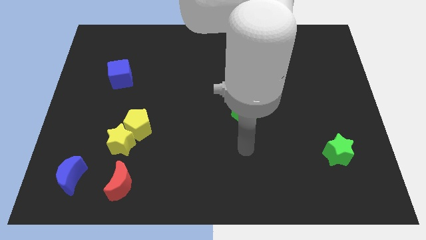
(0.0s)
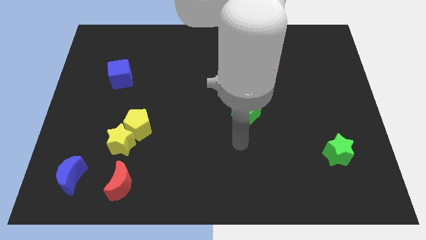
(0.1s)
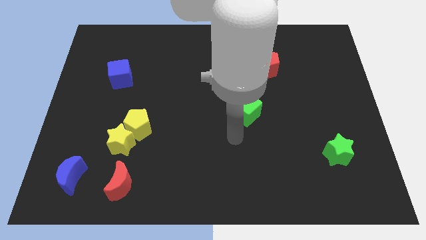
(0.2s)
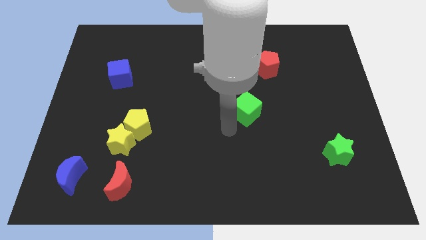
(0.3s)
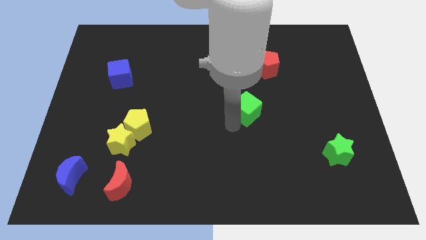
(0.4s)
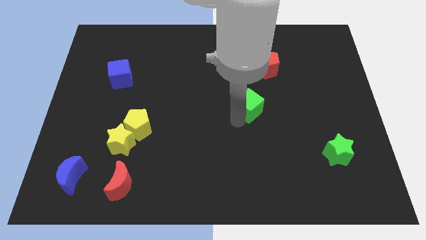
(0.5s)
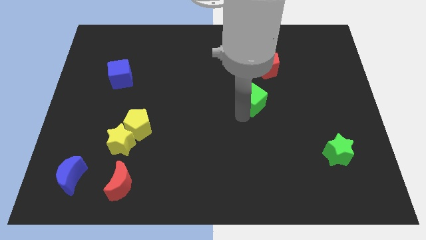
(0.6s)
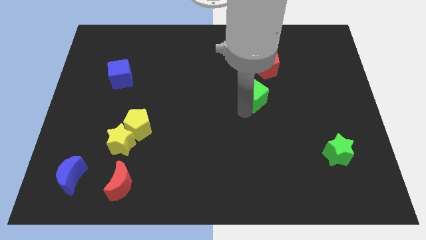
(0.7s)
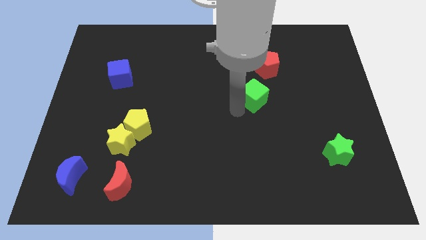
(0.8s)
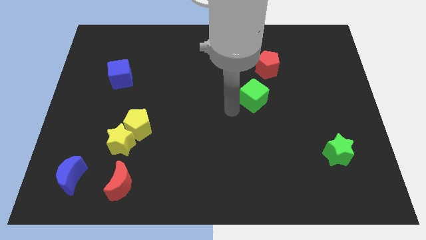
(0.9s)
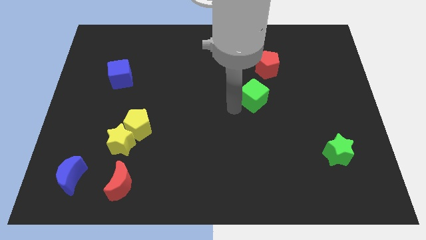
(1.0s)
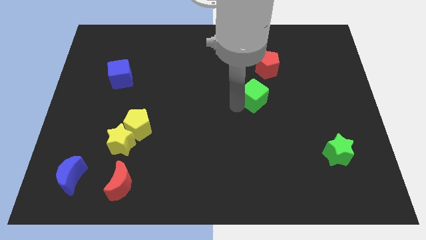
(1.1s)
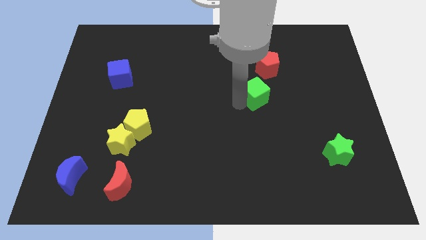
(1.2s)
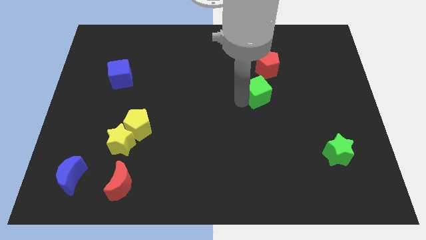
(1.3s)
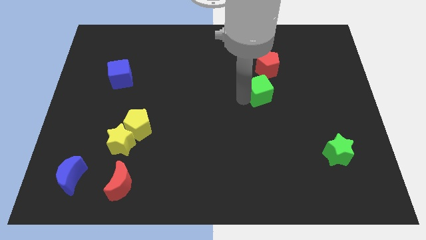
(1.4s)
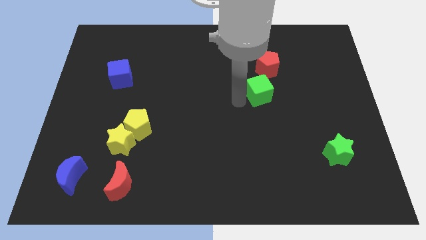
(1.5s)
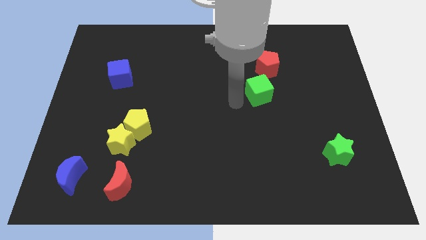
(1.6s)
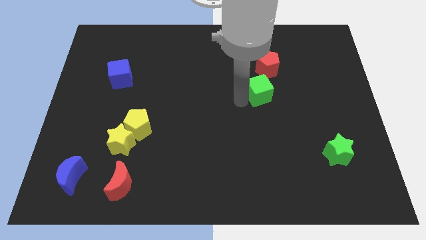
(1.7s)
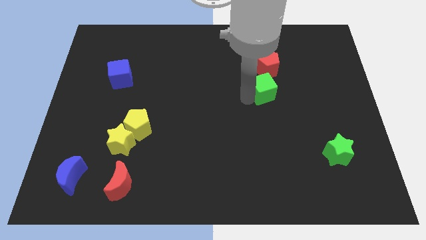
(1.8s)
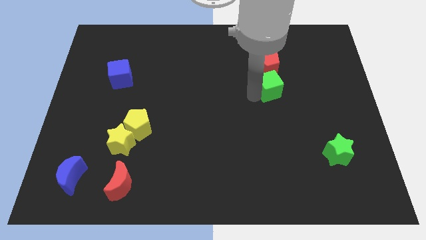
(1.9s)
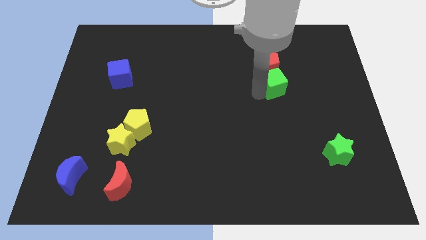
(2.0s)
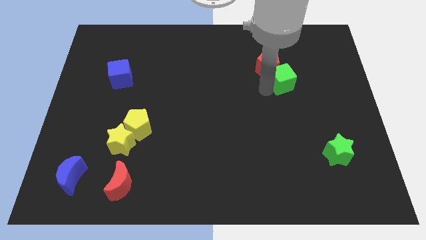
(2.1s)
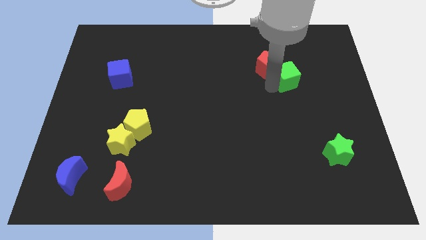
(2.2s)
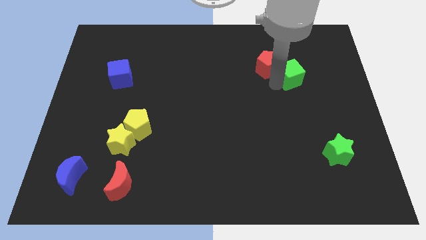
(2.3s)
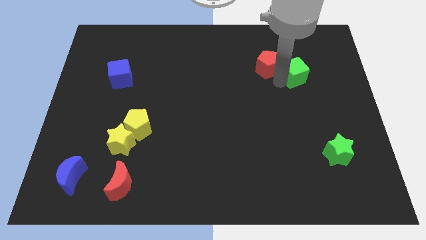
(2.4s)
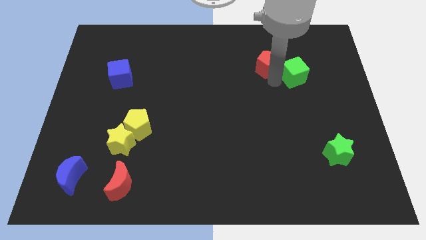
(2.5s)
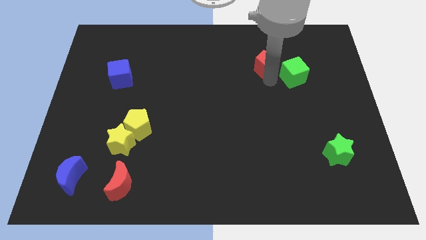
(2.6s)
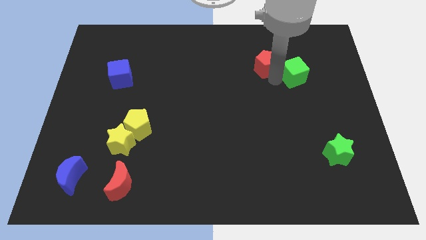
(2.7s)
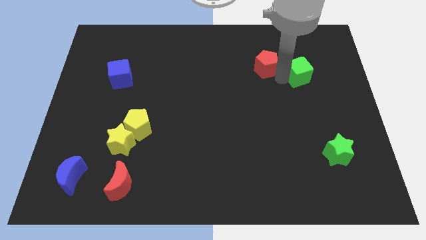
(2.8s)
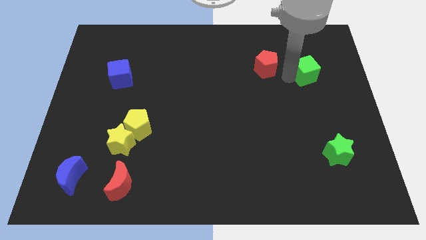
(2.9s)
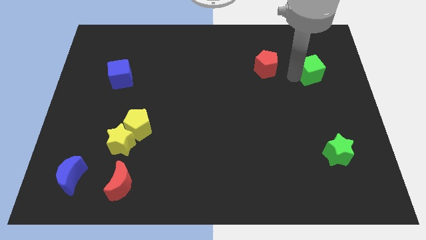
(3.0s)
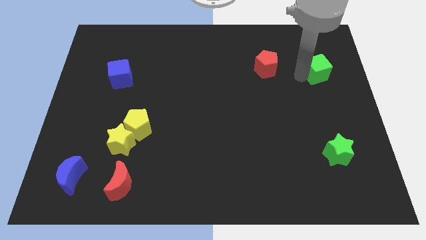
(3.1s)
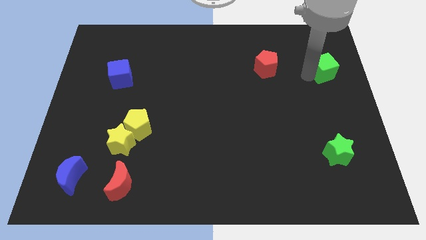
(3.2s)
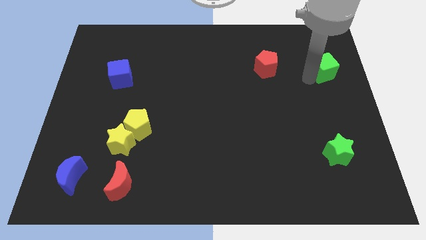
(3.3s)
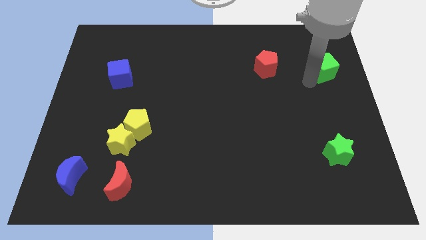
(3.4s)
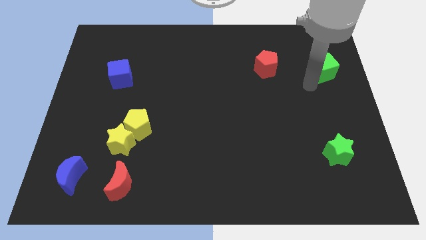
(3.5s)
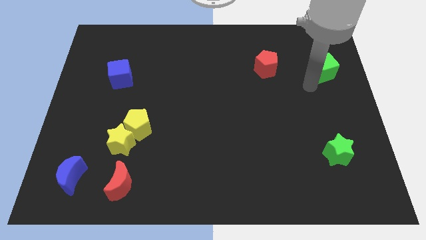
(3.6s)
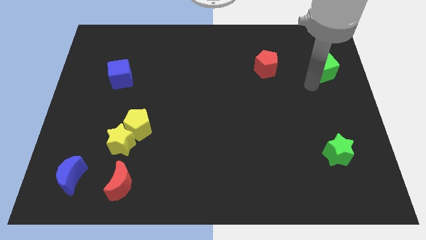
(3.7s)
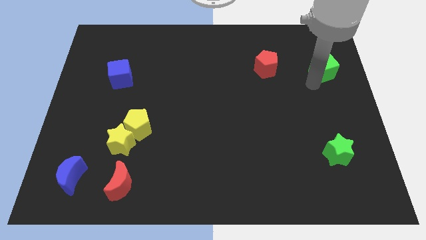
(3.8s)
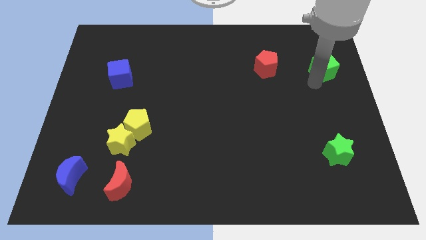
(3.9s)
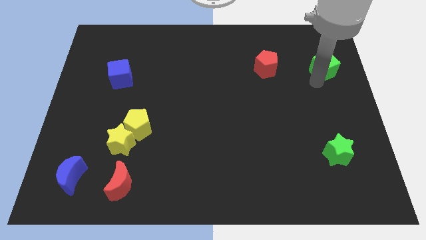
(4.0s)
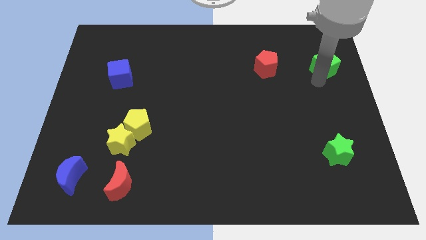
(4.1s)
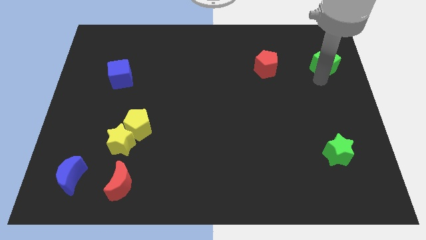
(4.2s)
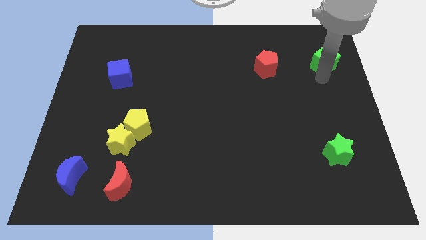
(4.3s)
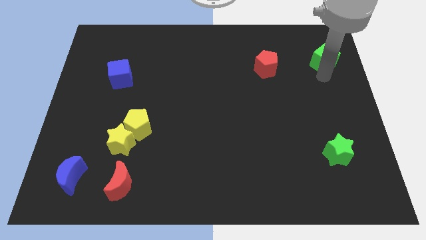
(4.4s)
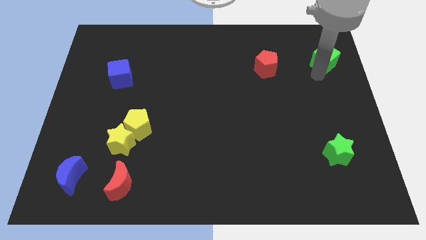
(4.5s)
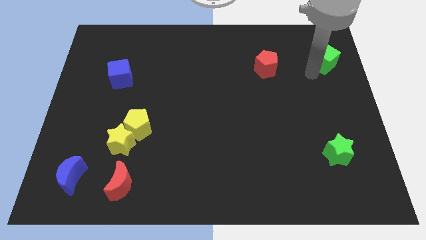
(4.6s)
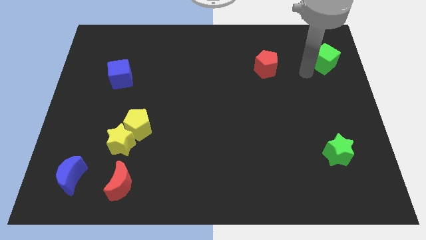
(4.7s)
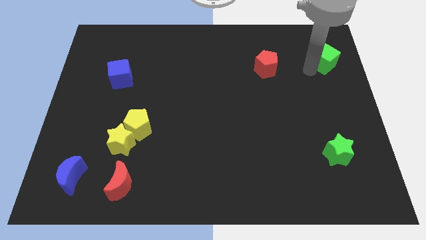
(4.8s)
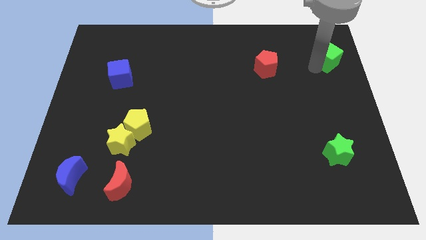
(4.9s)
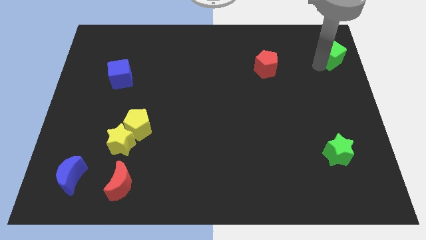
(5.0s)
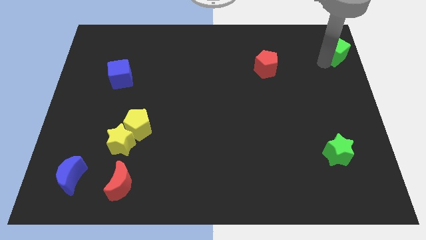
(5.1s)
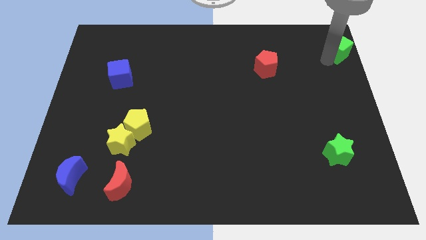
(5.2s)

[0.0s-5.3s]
push the green cube to the top right of the board

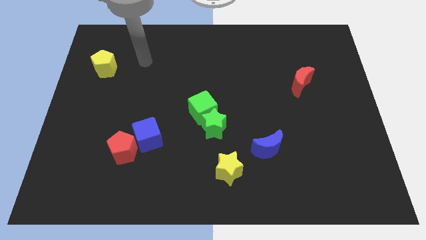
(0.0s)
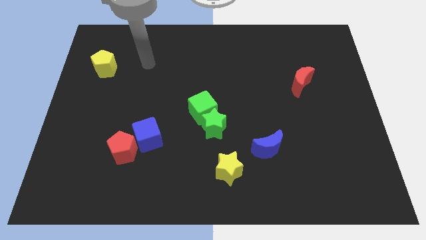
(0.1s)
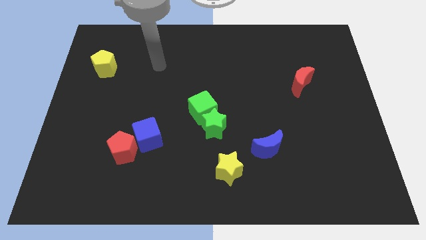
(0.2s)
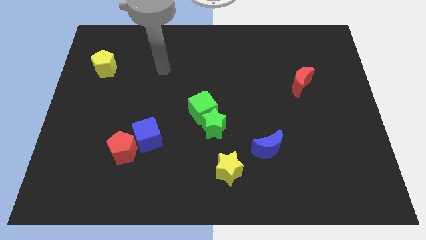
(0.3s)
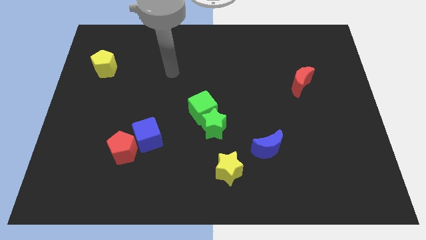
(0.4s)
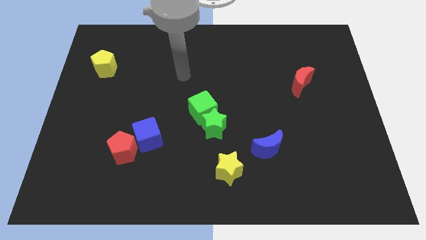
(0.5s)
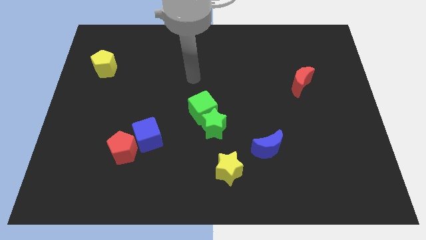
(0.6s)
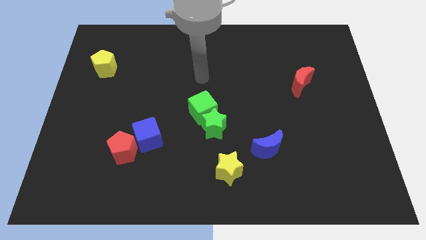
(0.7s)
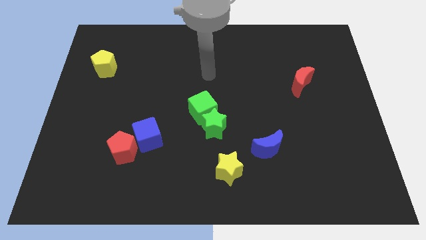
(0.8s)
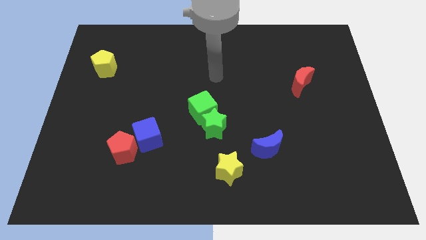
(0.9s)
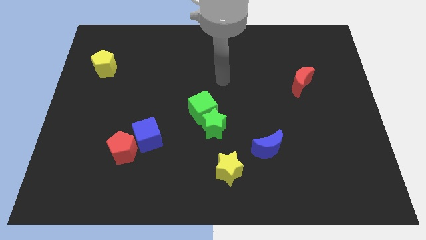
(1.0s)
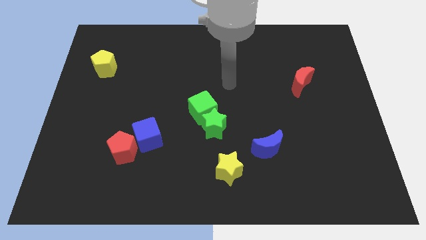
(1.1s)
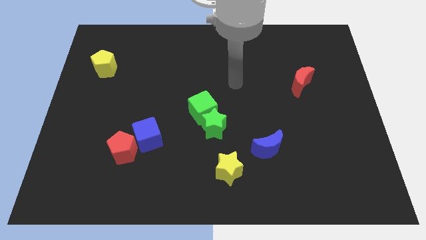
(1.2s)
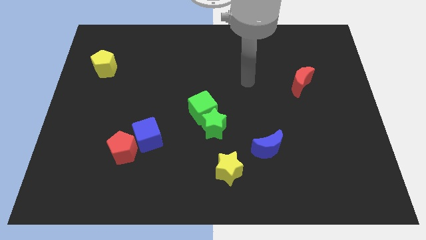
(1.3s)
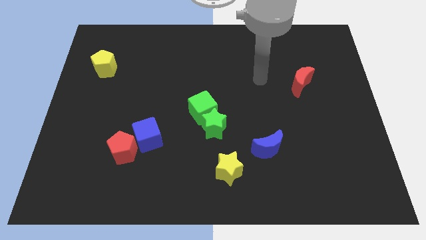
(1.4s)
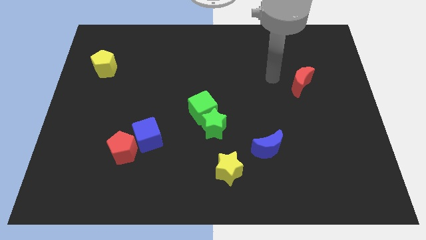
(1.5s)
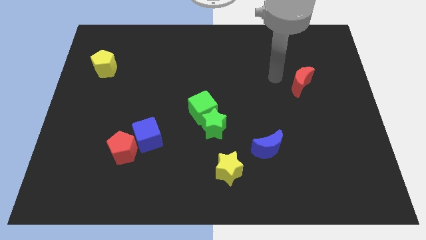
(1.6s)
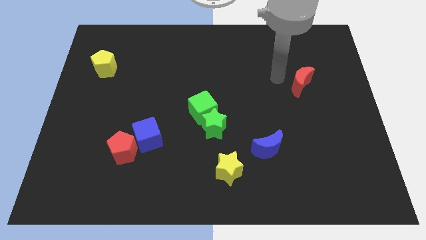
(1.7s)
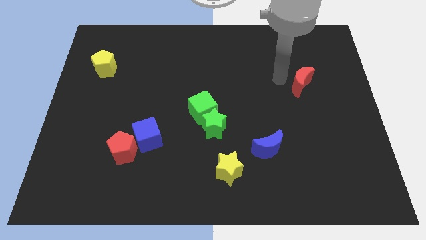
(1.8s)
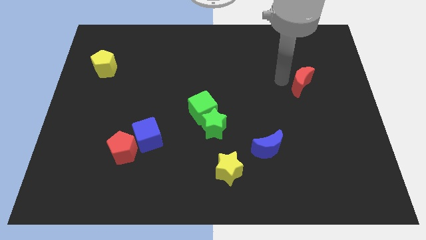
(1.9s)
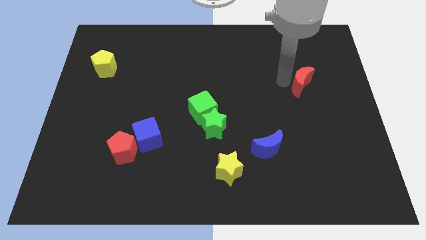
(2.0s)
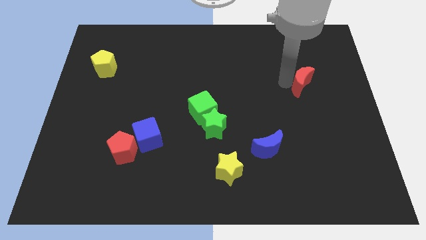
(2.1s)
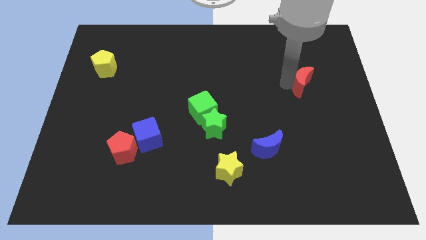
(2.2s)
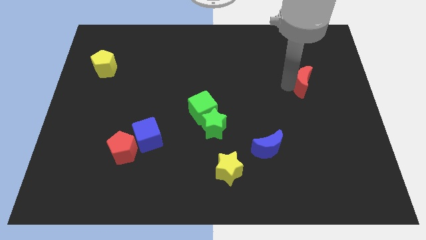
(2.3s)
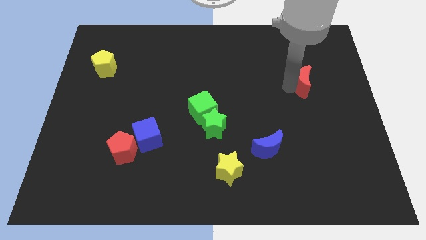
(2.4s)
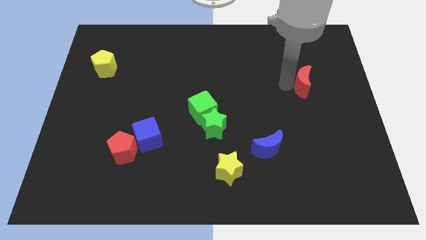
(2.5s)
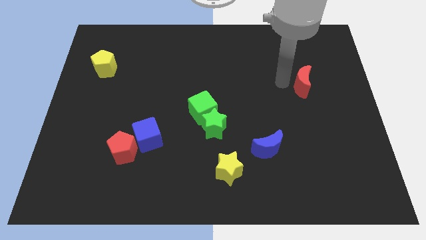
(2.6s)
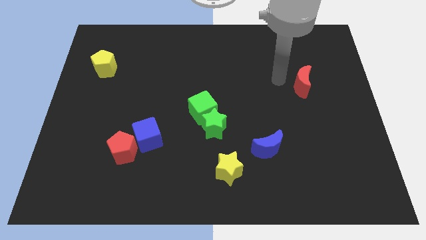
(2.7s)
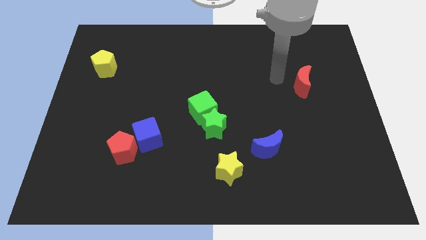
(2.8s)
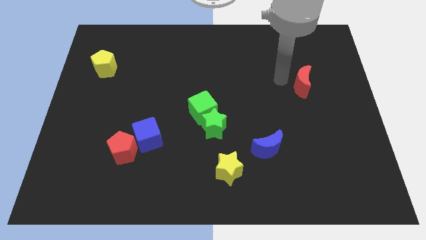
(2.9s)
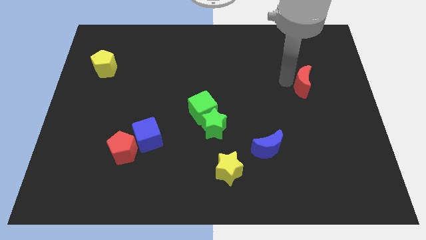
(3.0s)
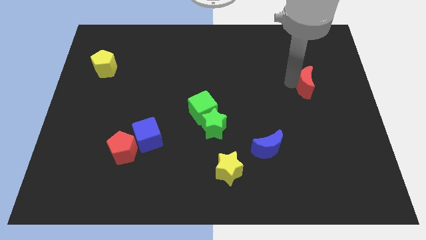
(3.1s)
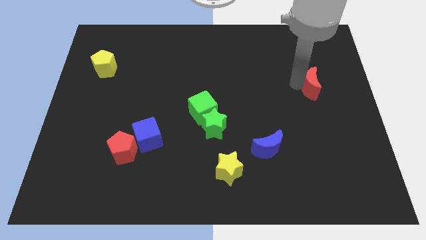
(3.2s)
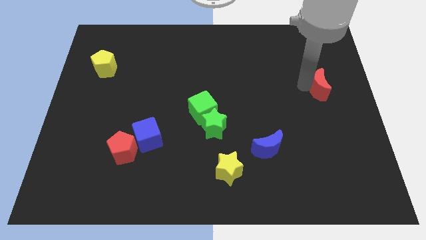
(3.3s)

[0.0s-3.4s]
push the red moon to the center right
